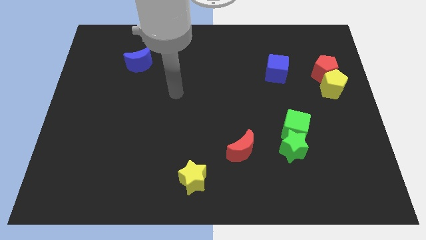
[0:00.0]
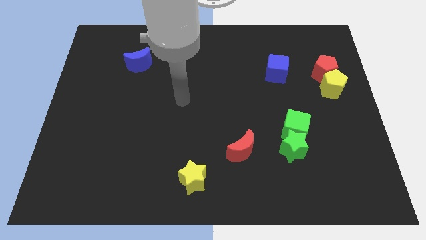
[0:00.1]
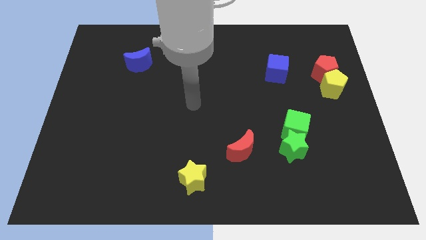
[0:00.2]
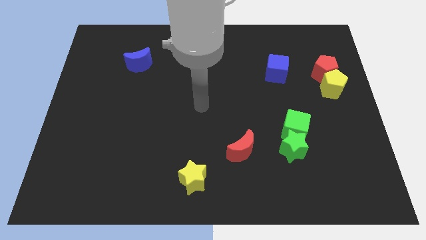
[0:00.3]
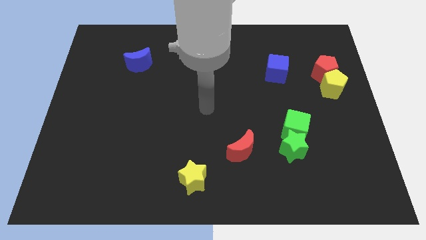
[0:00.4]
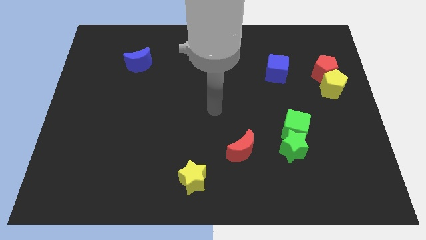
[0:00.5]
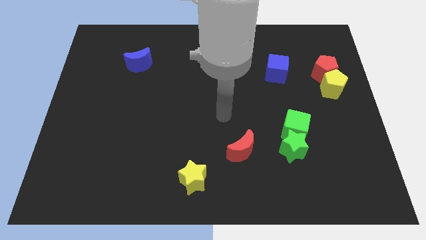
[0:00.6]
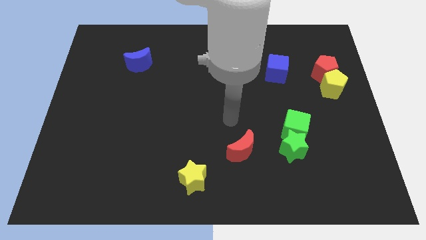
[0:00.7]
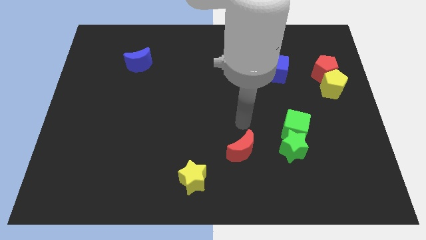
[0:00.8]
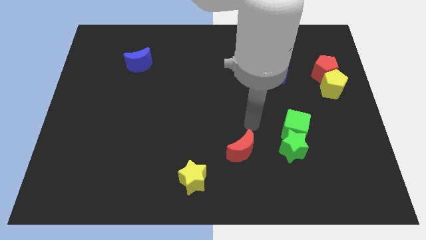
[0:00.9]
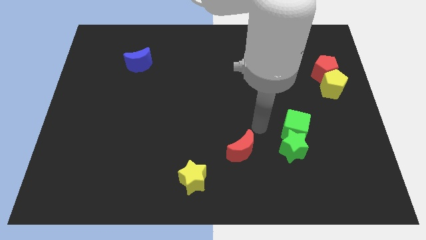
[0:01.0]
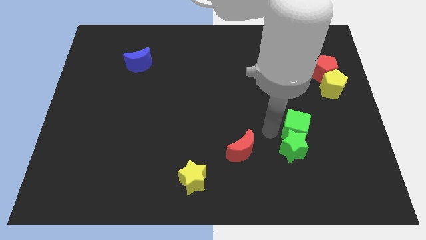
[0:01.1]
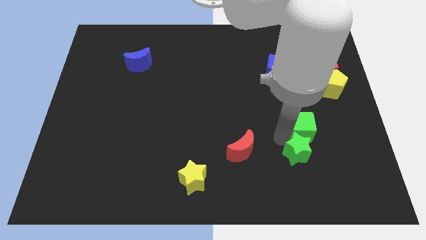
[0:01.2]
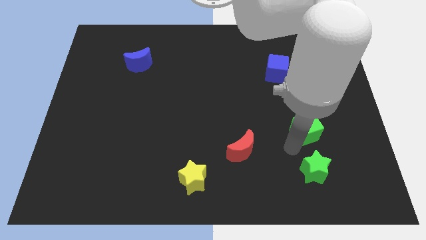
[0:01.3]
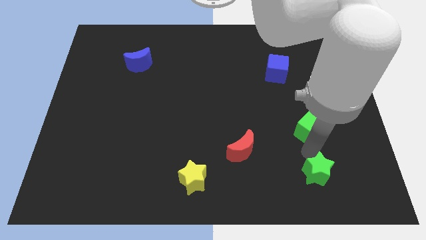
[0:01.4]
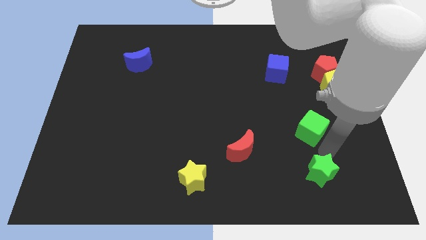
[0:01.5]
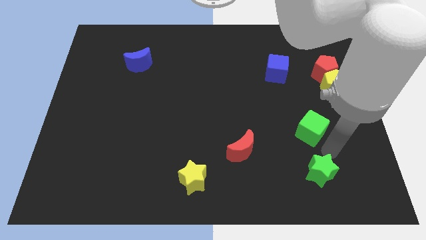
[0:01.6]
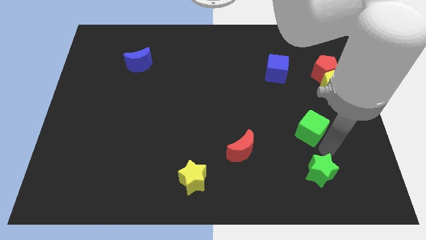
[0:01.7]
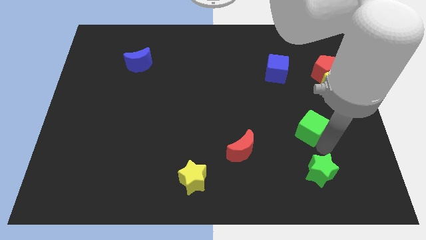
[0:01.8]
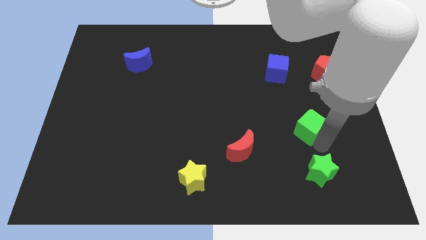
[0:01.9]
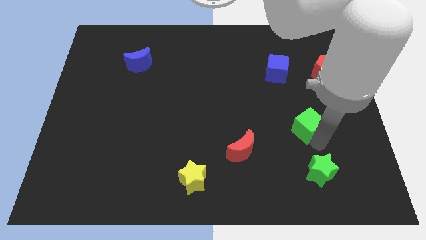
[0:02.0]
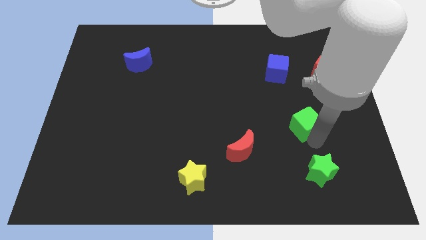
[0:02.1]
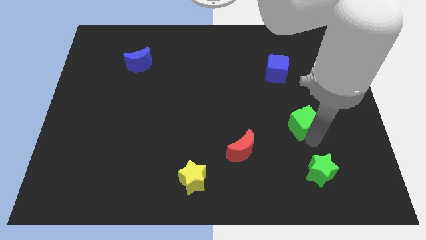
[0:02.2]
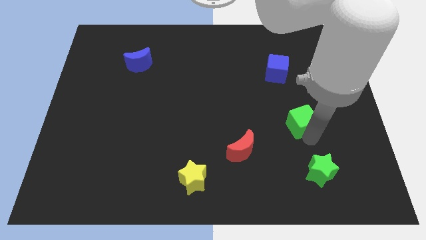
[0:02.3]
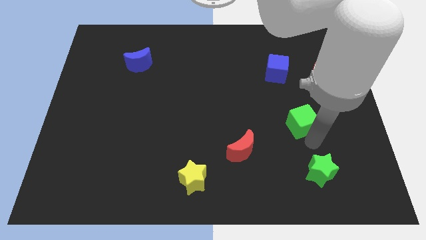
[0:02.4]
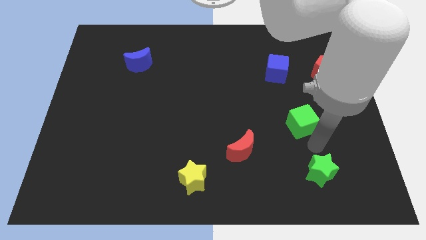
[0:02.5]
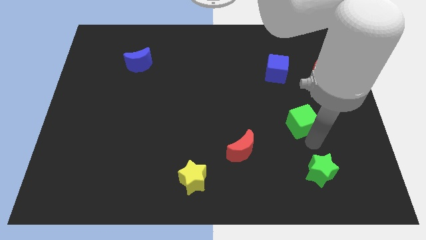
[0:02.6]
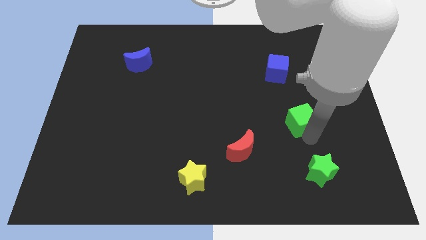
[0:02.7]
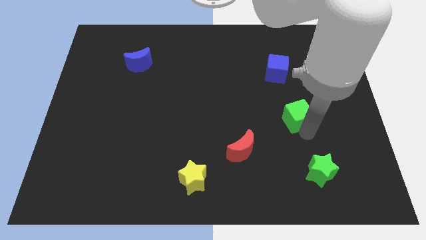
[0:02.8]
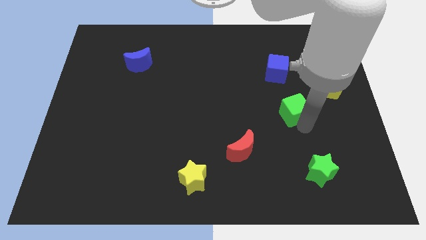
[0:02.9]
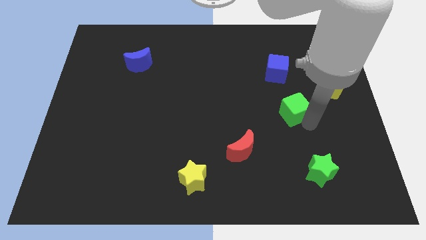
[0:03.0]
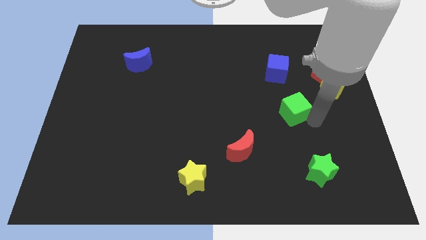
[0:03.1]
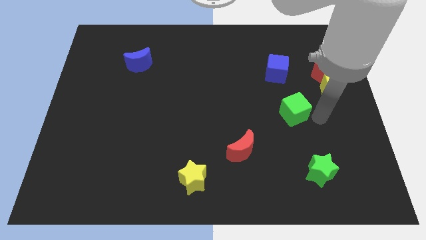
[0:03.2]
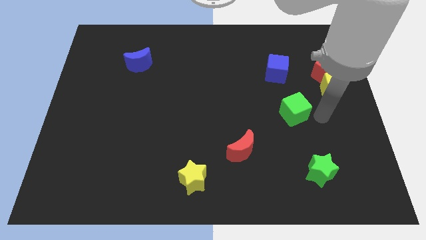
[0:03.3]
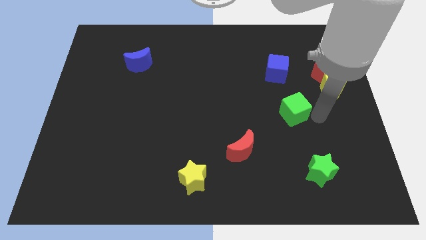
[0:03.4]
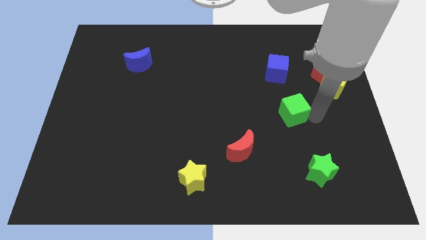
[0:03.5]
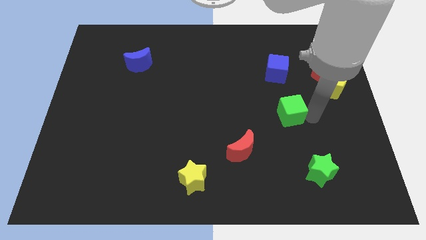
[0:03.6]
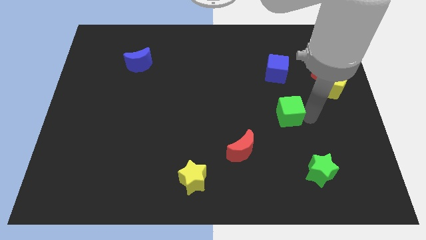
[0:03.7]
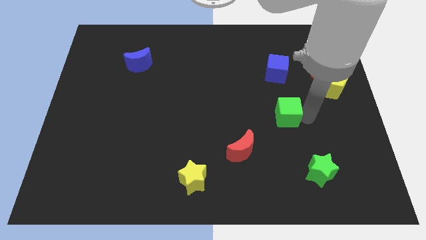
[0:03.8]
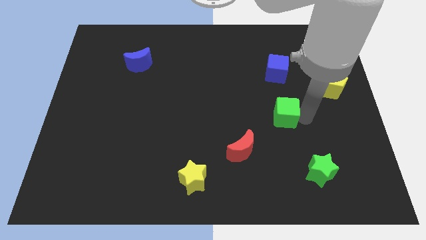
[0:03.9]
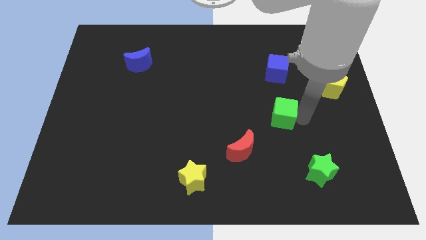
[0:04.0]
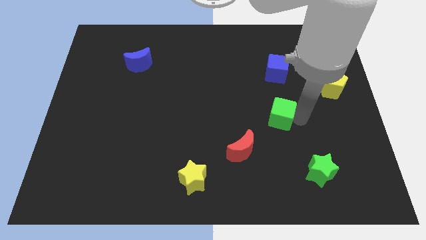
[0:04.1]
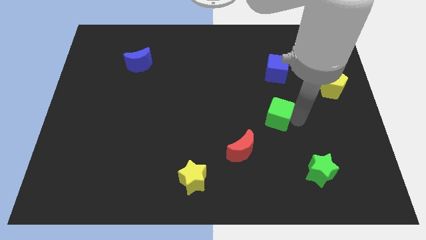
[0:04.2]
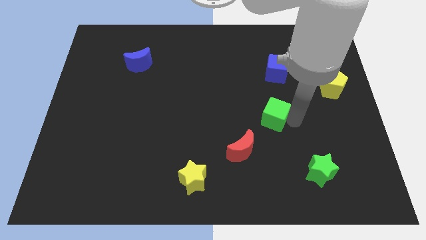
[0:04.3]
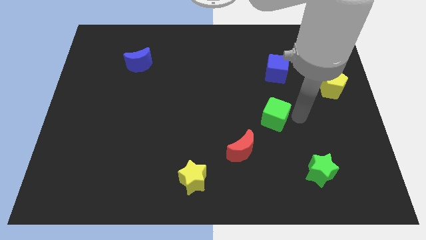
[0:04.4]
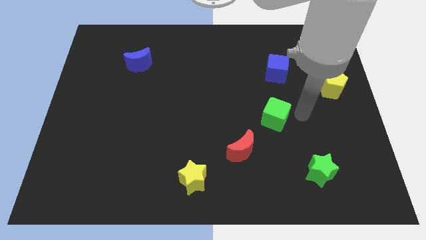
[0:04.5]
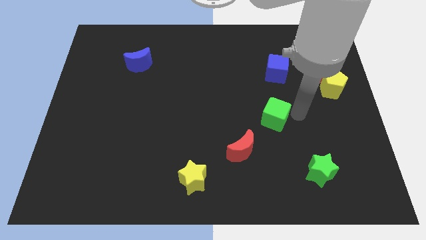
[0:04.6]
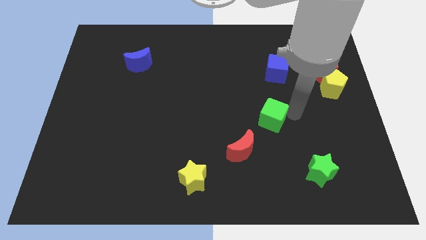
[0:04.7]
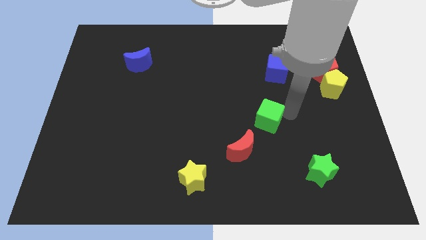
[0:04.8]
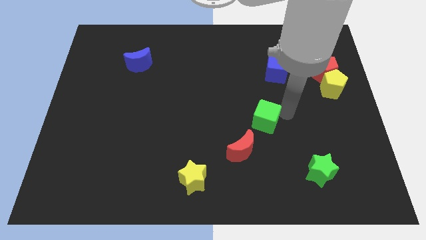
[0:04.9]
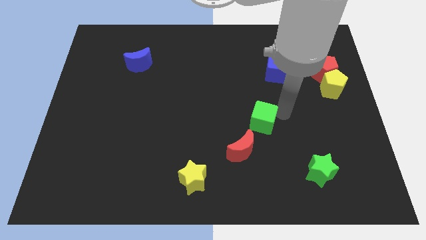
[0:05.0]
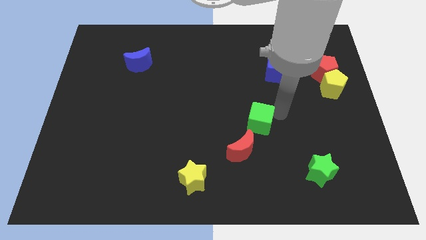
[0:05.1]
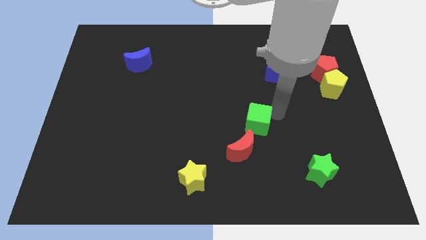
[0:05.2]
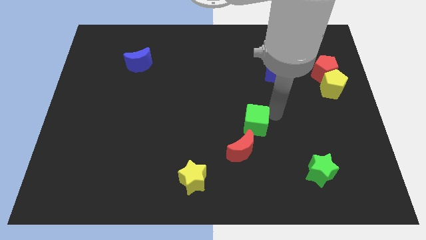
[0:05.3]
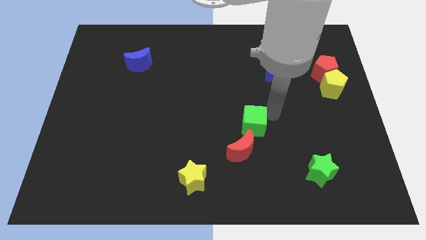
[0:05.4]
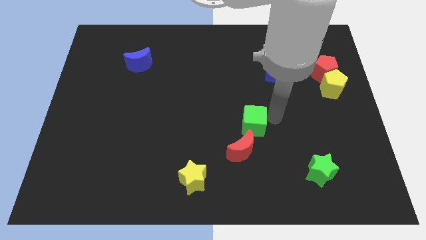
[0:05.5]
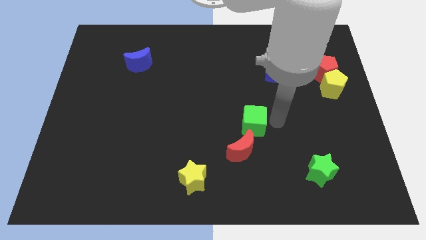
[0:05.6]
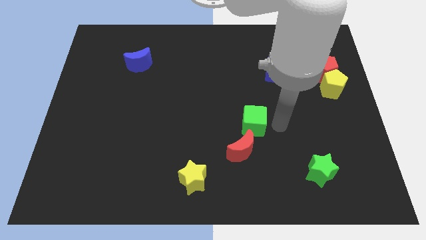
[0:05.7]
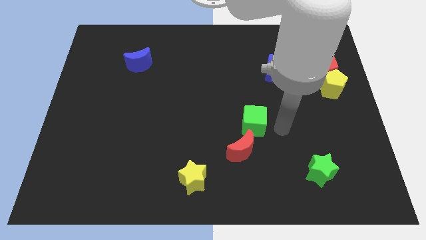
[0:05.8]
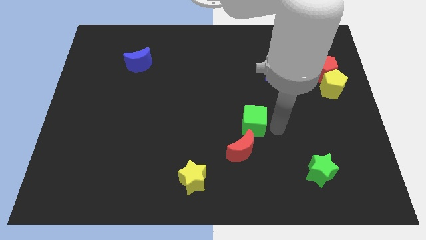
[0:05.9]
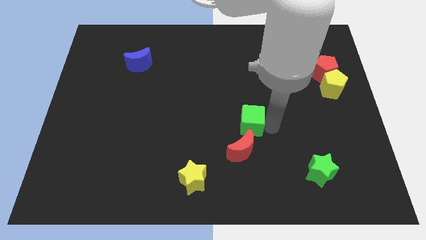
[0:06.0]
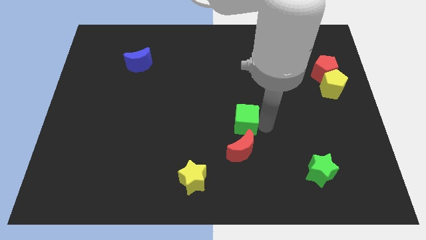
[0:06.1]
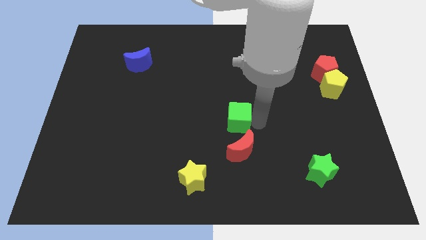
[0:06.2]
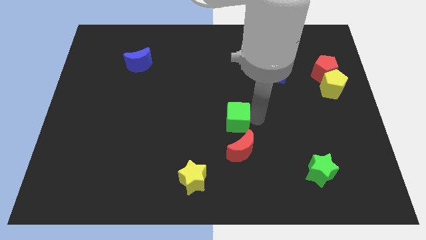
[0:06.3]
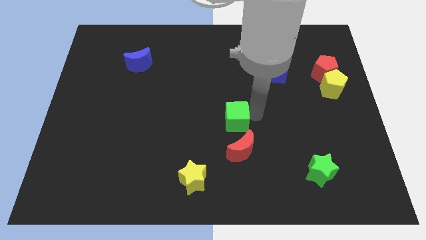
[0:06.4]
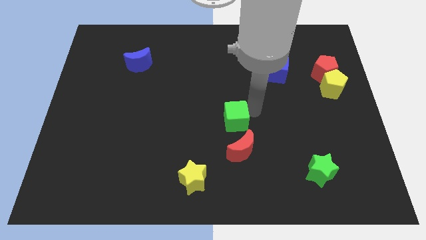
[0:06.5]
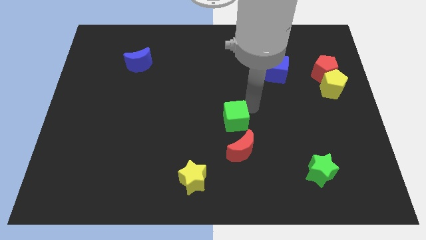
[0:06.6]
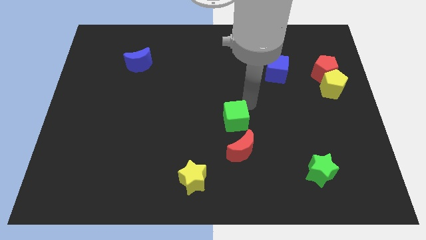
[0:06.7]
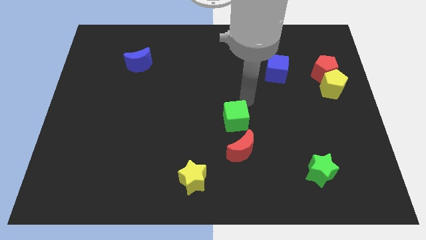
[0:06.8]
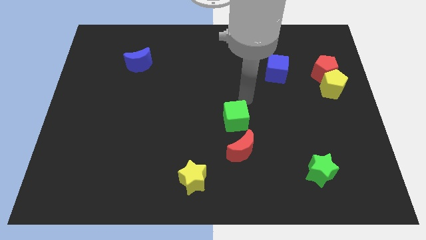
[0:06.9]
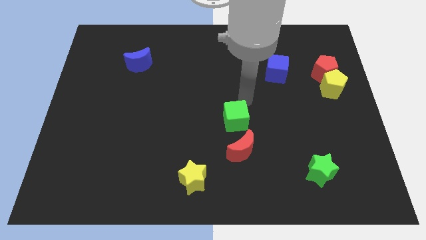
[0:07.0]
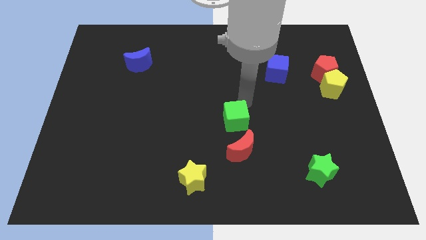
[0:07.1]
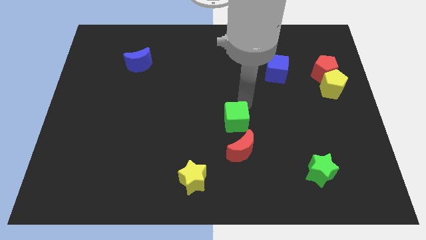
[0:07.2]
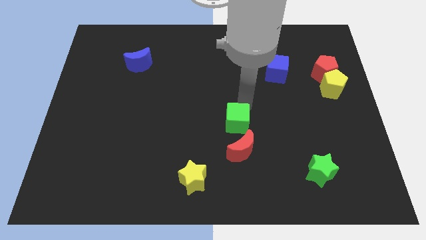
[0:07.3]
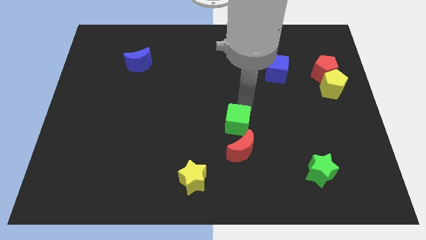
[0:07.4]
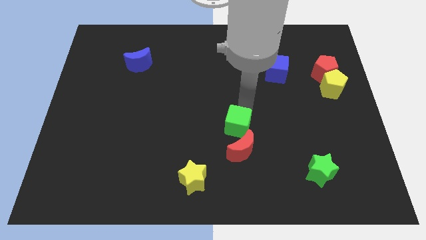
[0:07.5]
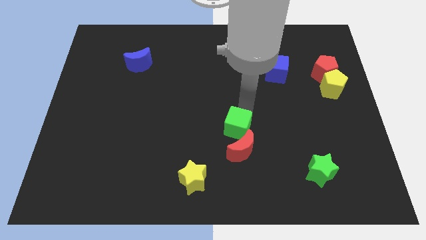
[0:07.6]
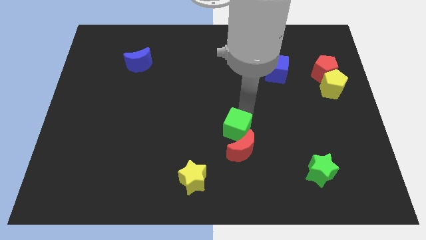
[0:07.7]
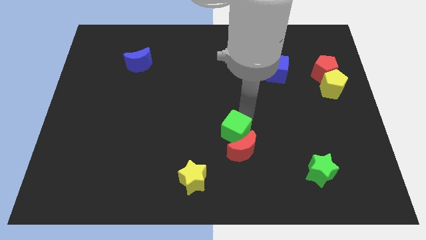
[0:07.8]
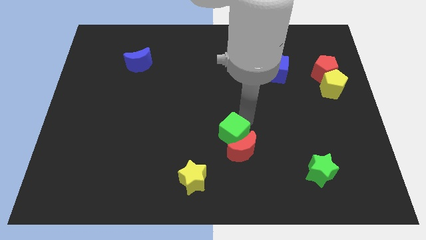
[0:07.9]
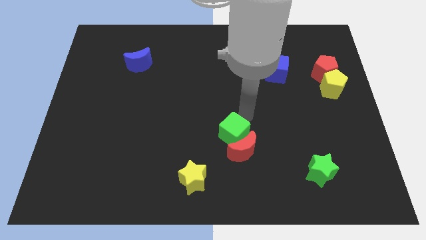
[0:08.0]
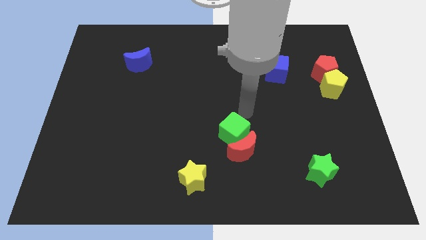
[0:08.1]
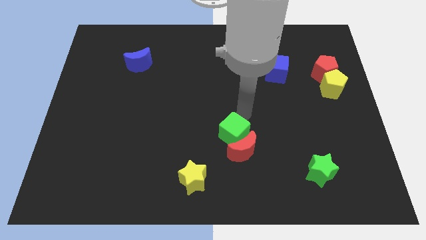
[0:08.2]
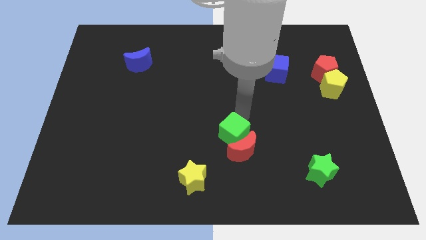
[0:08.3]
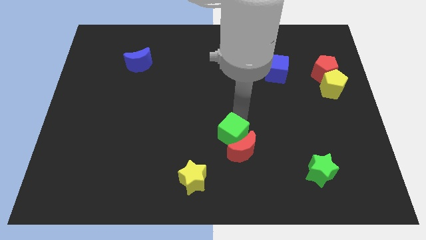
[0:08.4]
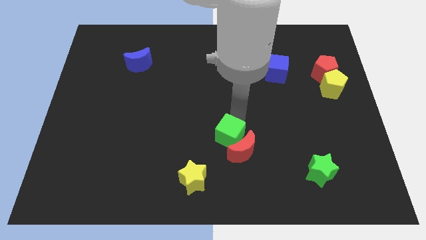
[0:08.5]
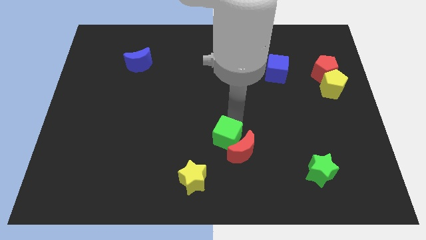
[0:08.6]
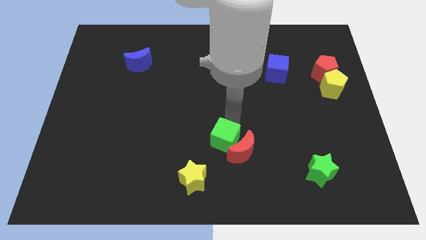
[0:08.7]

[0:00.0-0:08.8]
put the green cube to the top right of the yellow star
